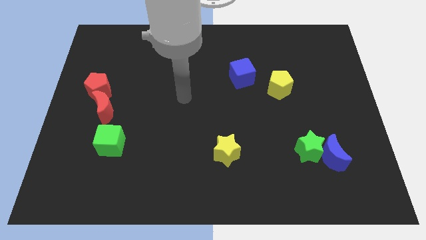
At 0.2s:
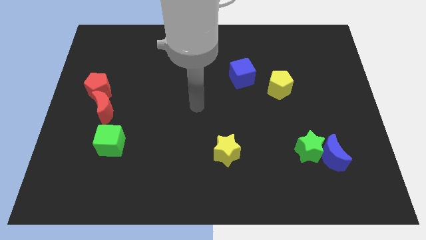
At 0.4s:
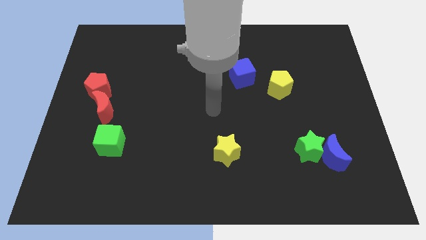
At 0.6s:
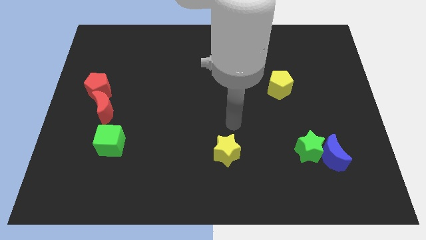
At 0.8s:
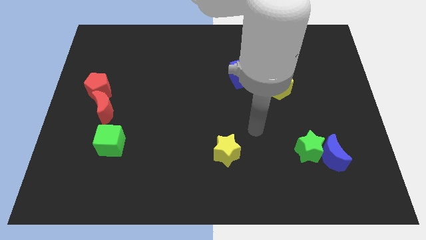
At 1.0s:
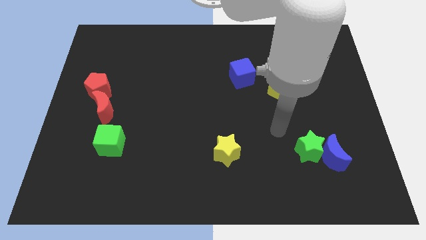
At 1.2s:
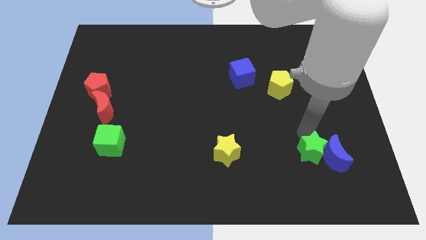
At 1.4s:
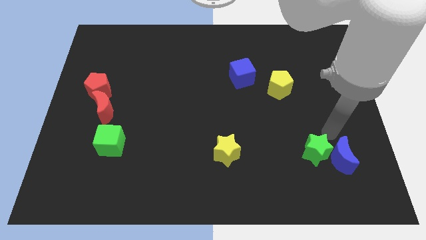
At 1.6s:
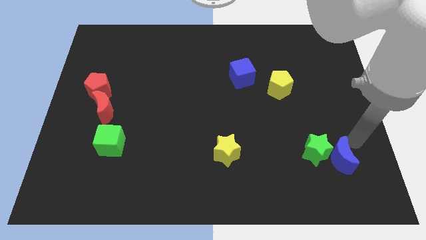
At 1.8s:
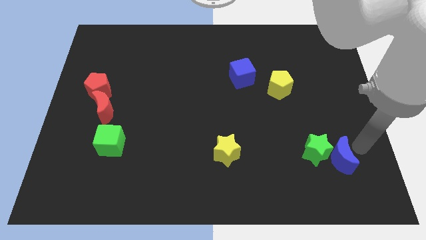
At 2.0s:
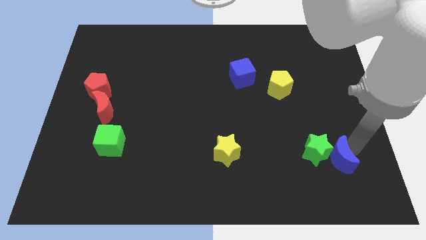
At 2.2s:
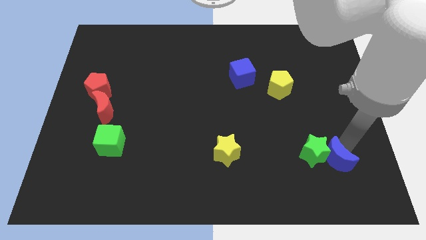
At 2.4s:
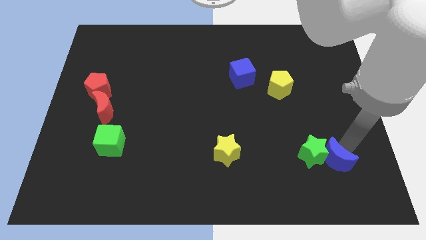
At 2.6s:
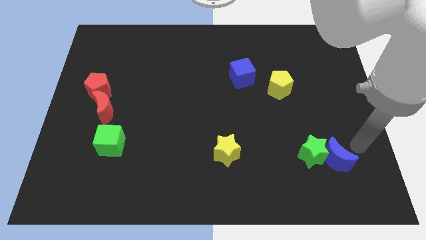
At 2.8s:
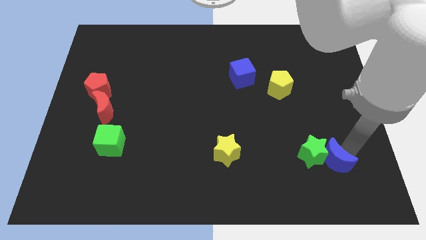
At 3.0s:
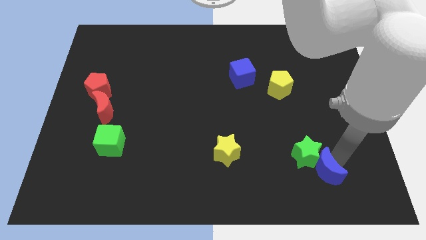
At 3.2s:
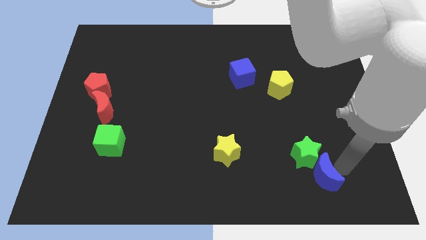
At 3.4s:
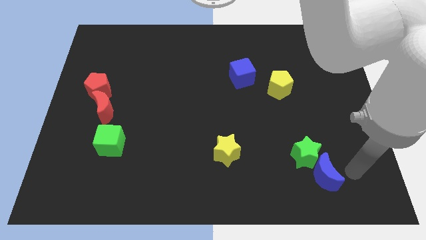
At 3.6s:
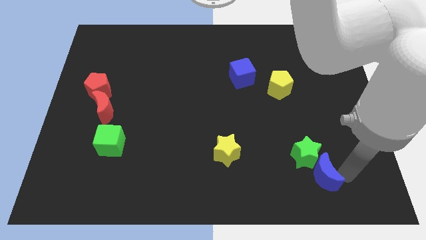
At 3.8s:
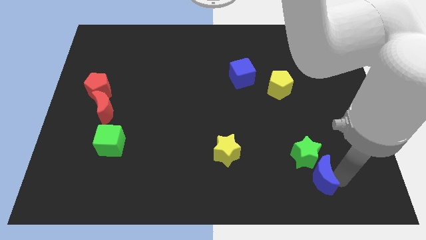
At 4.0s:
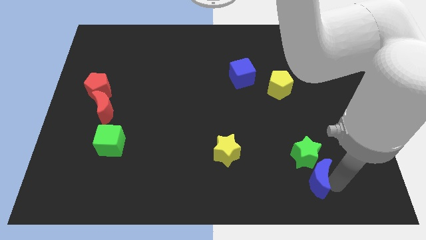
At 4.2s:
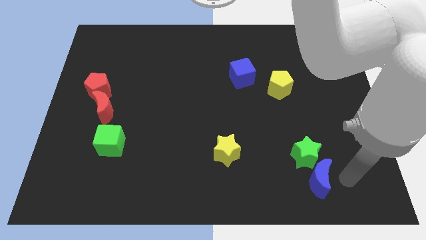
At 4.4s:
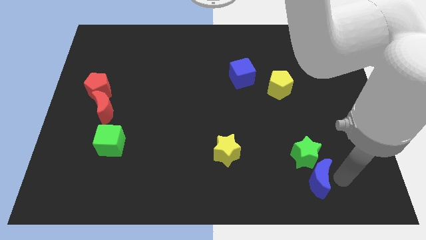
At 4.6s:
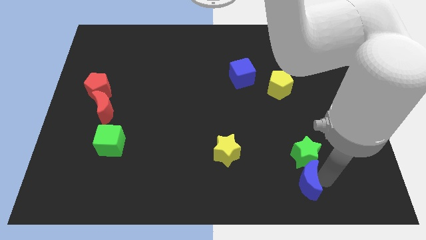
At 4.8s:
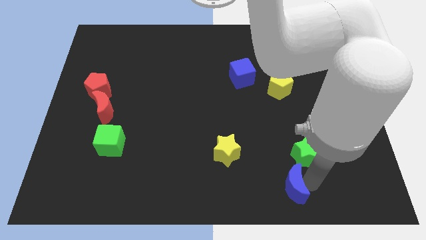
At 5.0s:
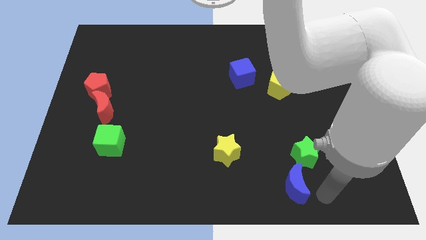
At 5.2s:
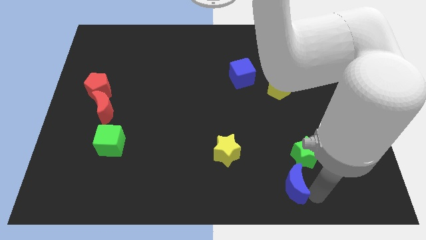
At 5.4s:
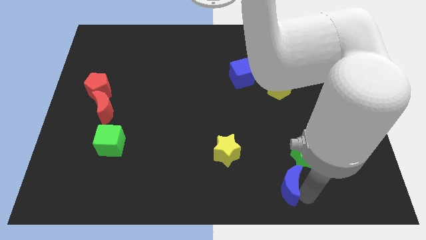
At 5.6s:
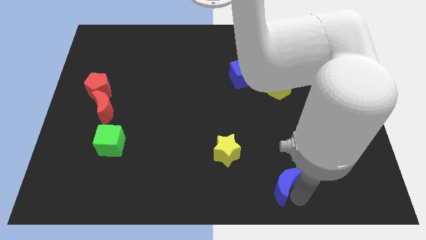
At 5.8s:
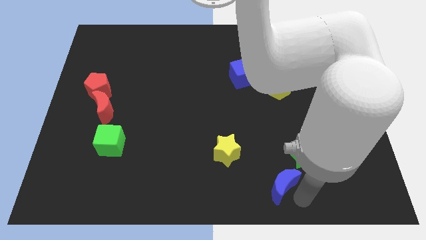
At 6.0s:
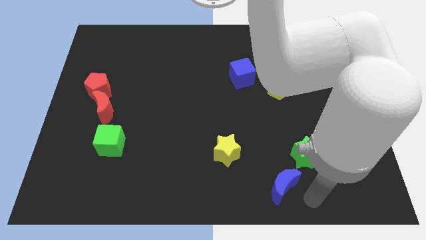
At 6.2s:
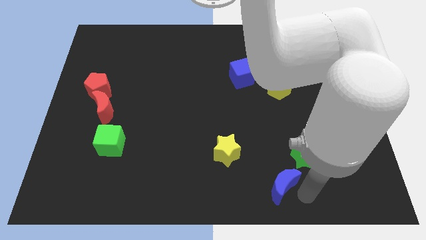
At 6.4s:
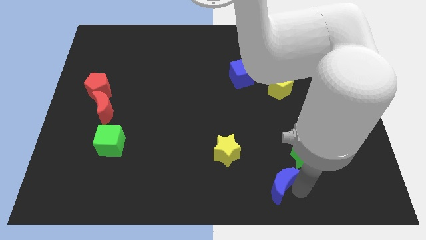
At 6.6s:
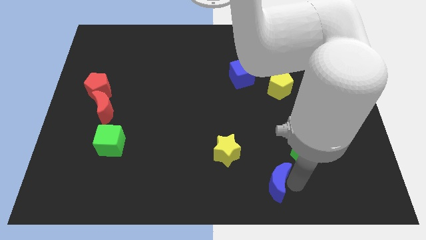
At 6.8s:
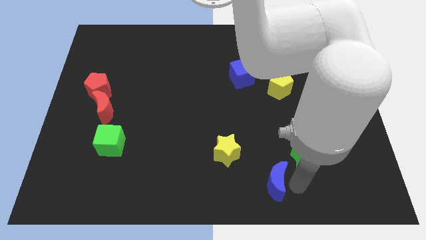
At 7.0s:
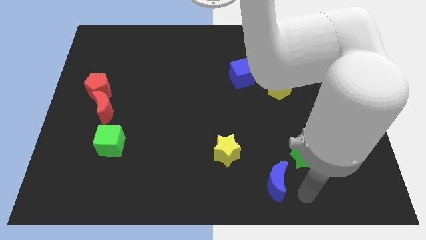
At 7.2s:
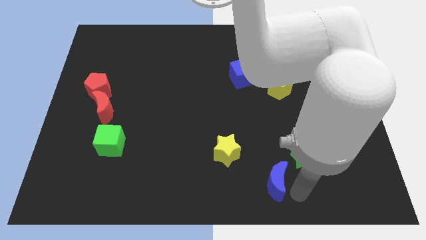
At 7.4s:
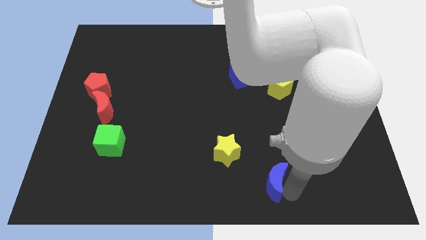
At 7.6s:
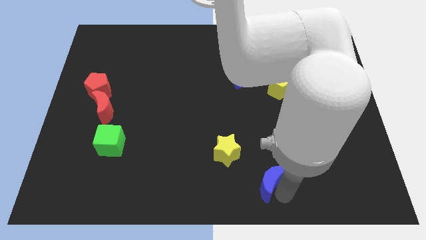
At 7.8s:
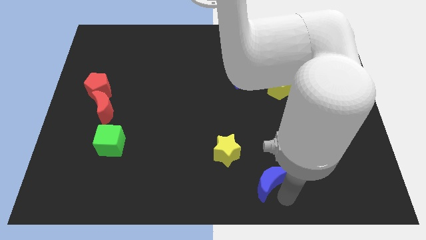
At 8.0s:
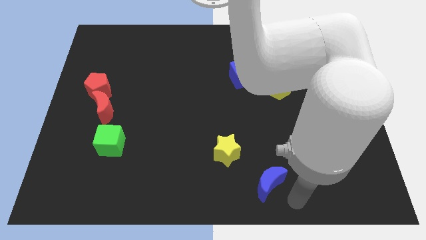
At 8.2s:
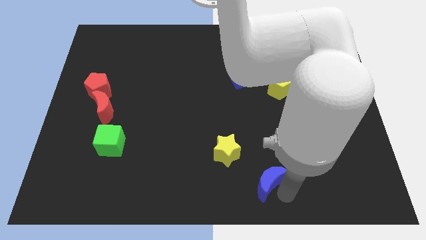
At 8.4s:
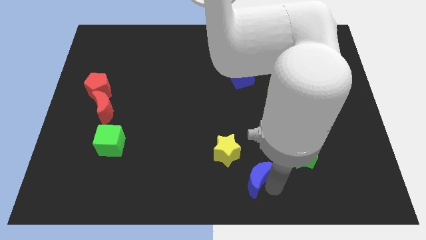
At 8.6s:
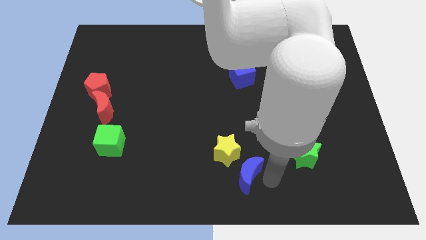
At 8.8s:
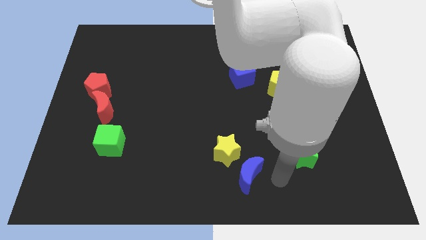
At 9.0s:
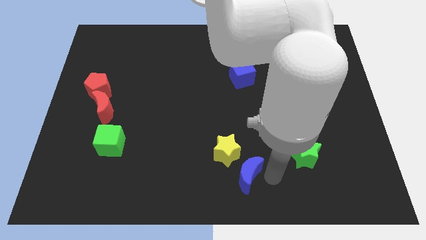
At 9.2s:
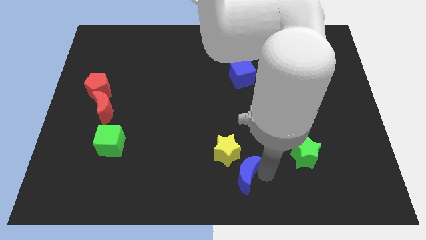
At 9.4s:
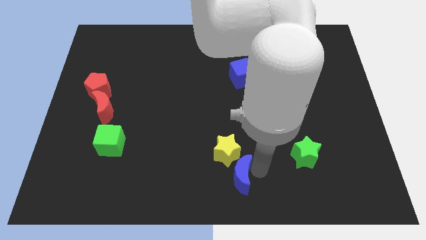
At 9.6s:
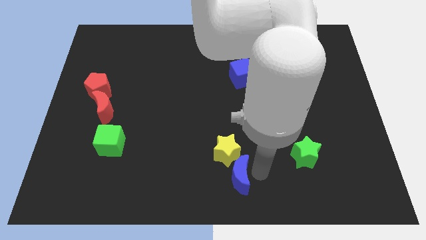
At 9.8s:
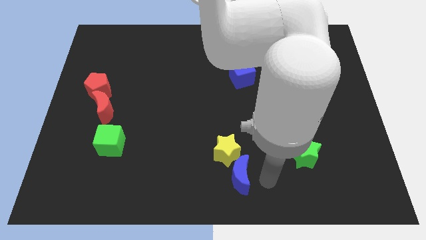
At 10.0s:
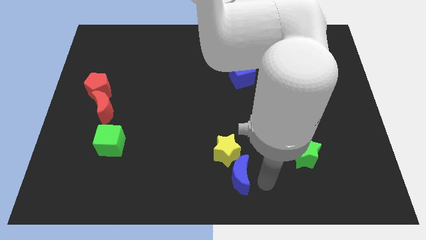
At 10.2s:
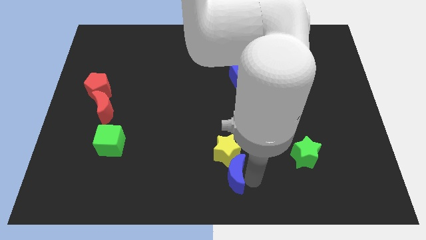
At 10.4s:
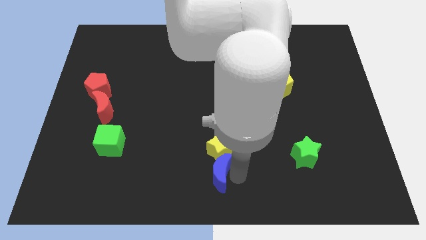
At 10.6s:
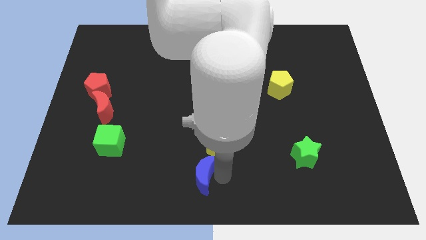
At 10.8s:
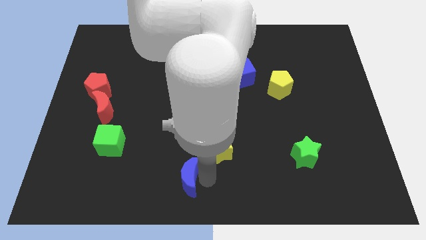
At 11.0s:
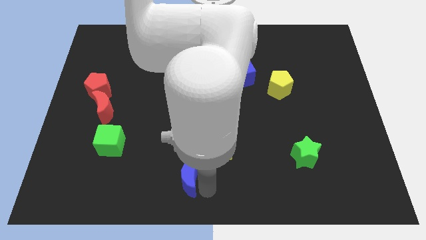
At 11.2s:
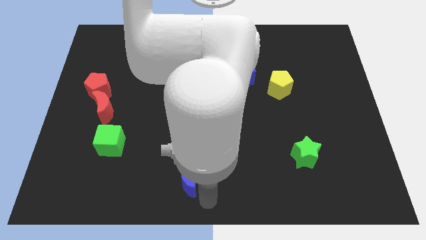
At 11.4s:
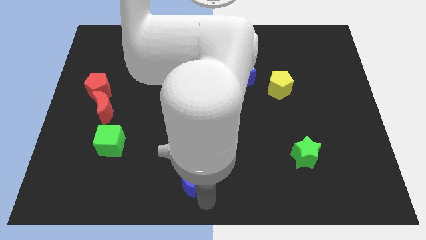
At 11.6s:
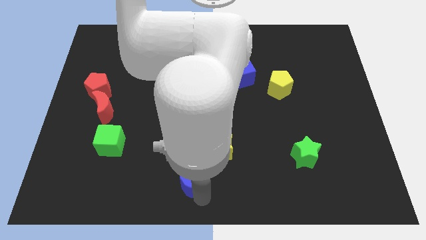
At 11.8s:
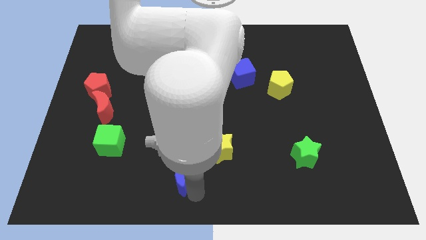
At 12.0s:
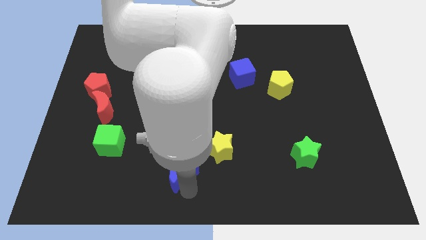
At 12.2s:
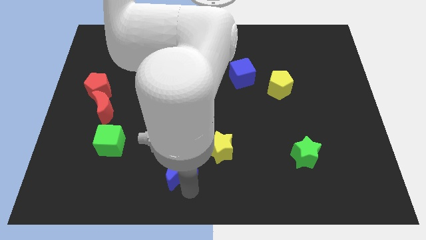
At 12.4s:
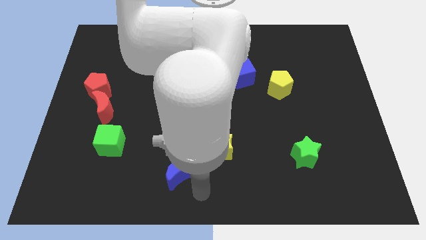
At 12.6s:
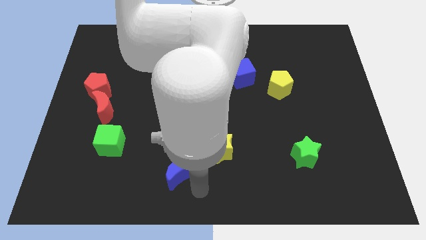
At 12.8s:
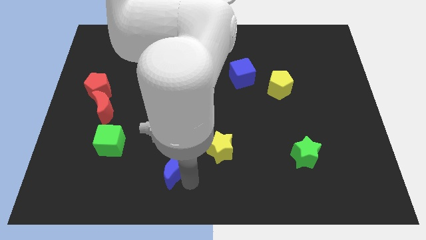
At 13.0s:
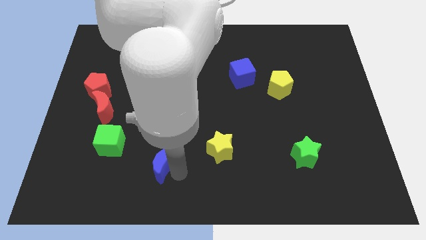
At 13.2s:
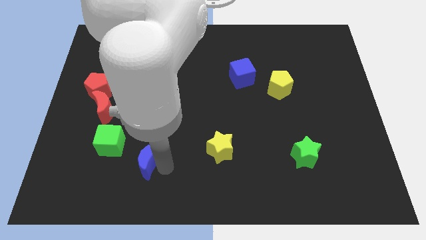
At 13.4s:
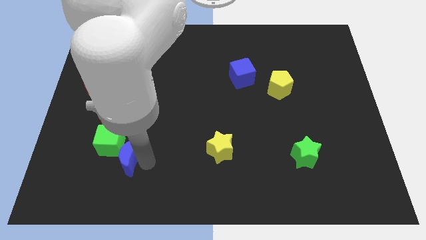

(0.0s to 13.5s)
slide the blue moon next to the green cube
